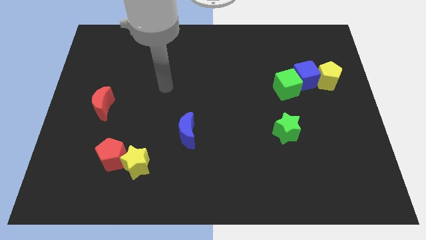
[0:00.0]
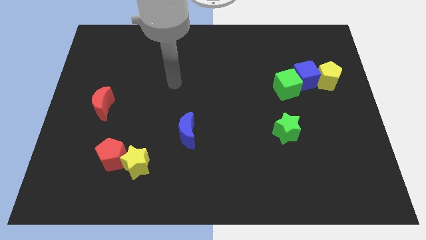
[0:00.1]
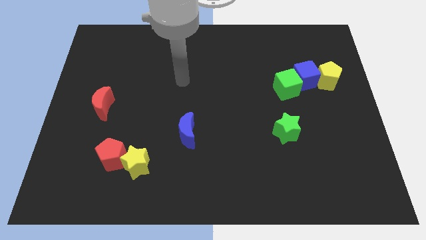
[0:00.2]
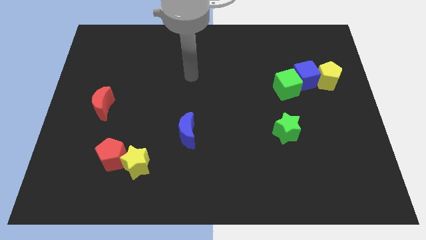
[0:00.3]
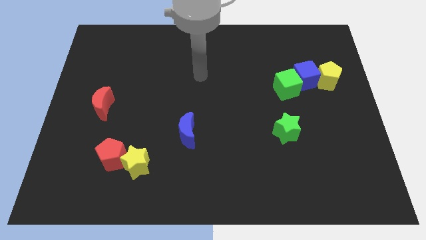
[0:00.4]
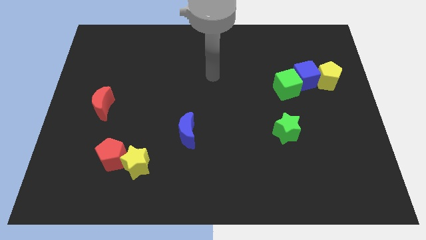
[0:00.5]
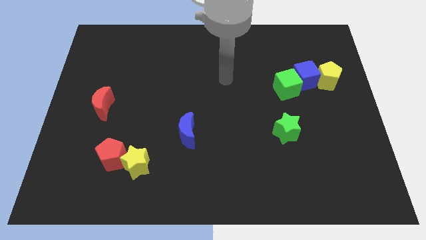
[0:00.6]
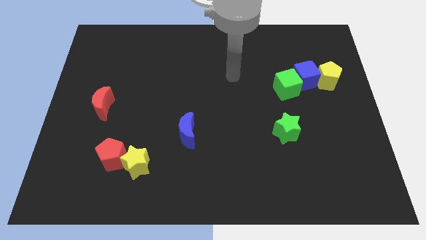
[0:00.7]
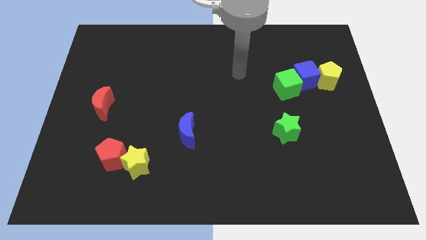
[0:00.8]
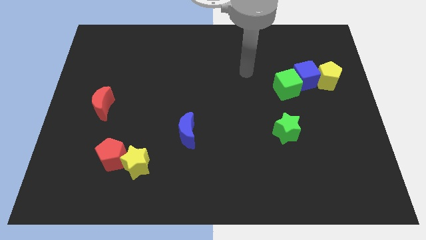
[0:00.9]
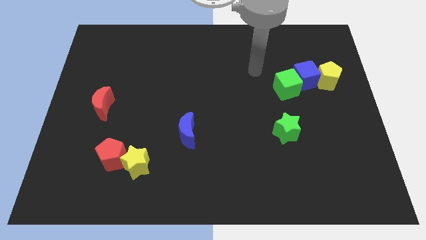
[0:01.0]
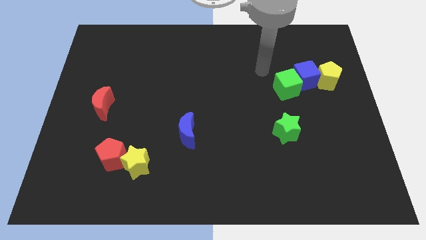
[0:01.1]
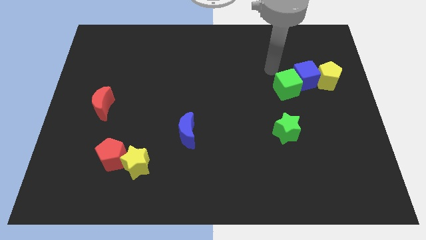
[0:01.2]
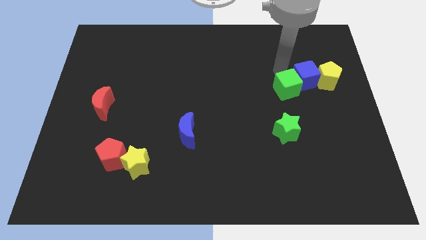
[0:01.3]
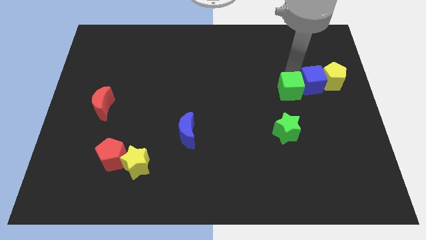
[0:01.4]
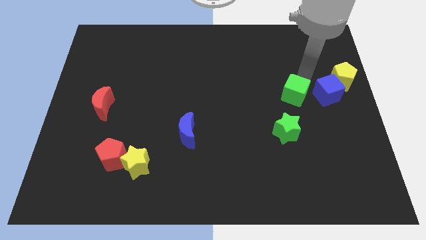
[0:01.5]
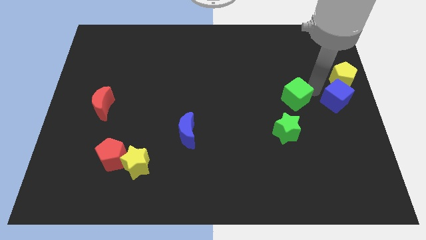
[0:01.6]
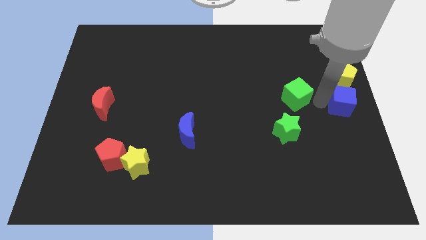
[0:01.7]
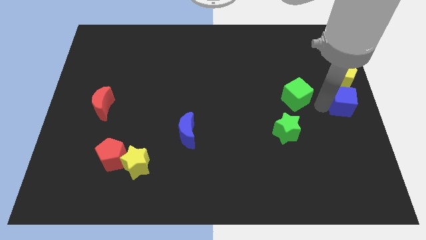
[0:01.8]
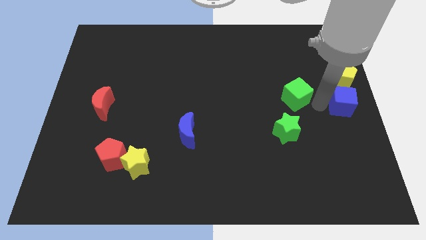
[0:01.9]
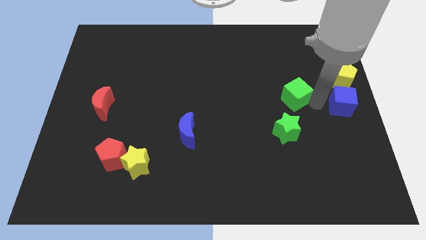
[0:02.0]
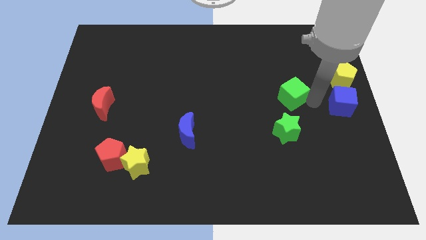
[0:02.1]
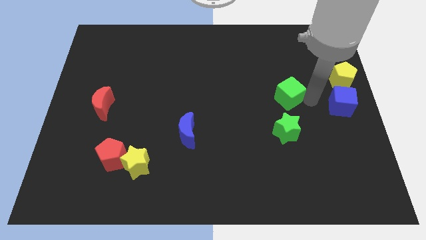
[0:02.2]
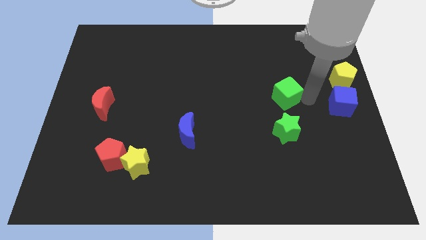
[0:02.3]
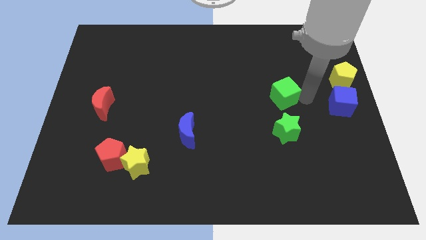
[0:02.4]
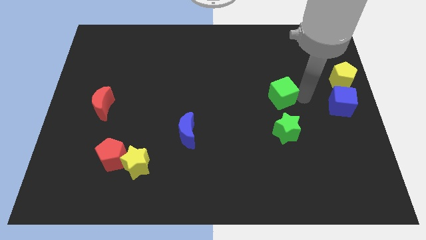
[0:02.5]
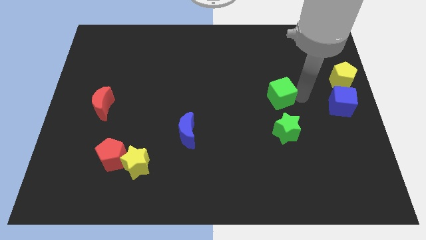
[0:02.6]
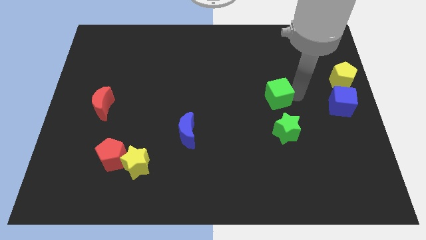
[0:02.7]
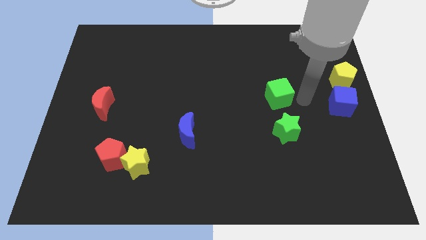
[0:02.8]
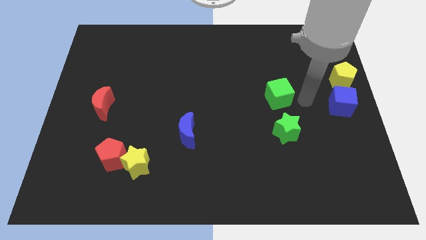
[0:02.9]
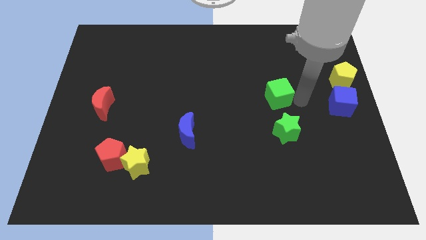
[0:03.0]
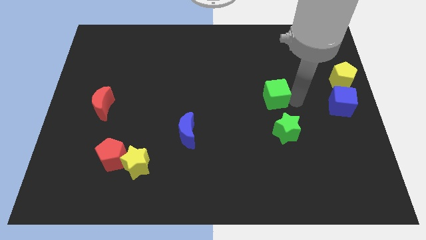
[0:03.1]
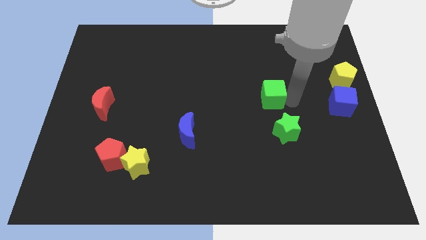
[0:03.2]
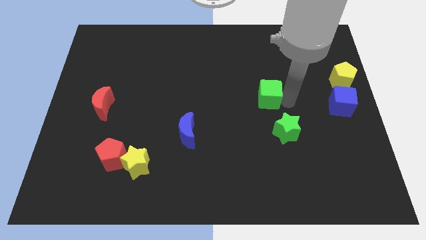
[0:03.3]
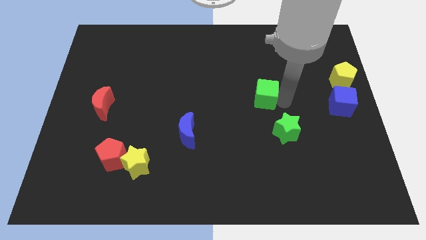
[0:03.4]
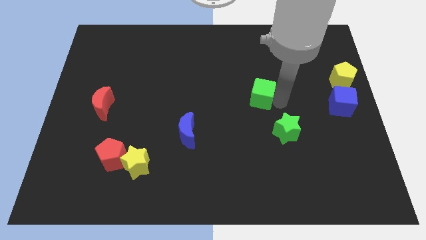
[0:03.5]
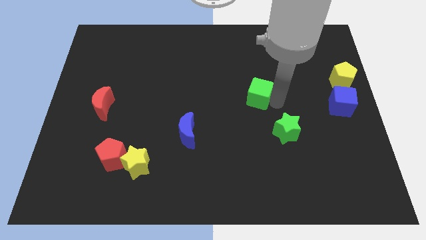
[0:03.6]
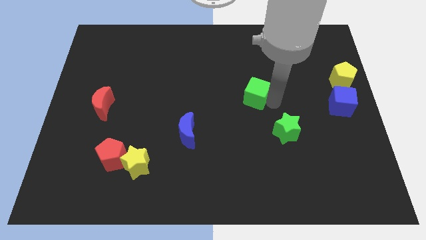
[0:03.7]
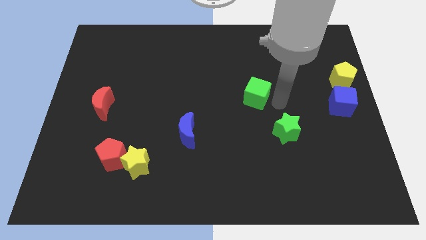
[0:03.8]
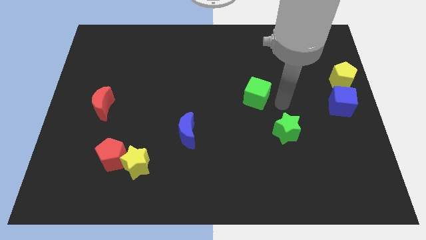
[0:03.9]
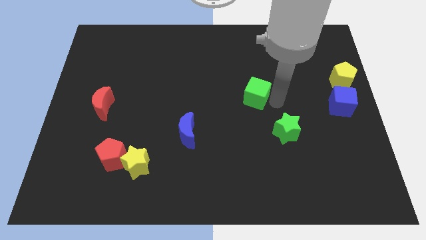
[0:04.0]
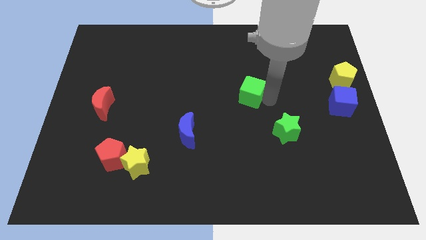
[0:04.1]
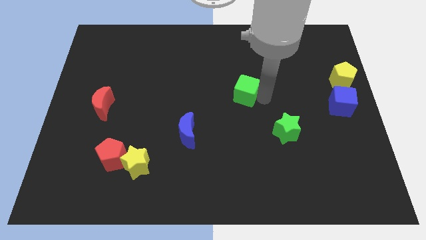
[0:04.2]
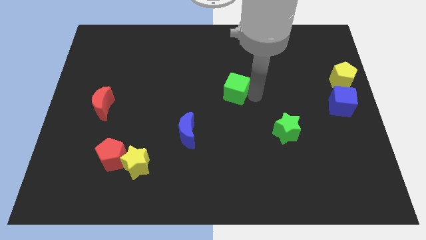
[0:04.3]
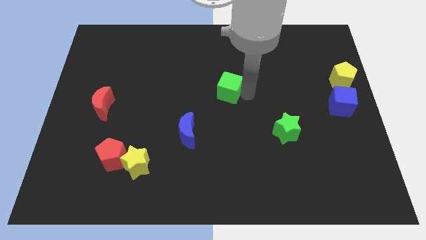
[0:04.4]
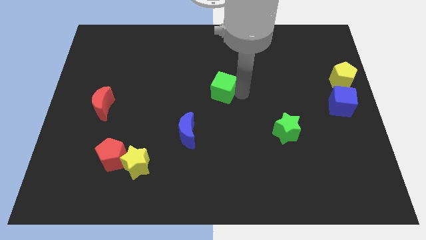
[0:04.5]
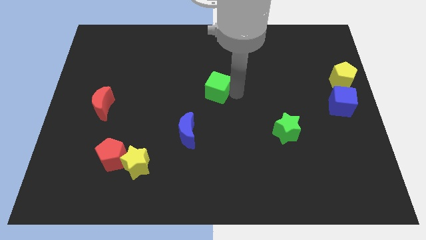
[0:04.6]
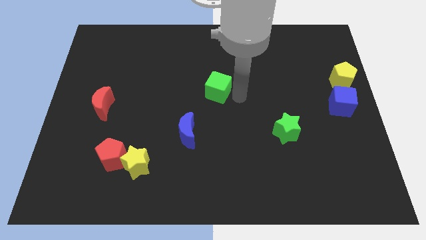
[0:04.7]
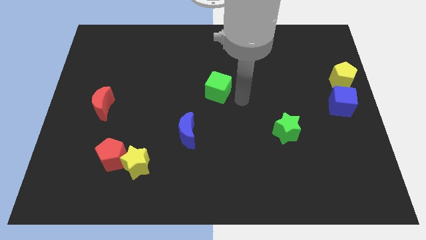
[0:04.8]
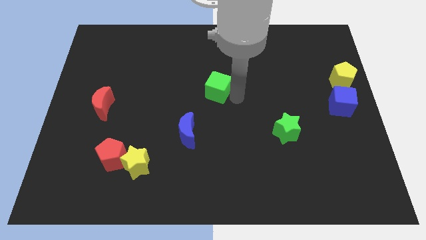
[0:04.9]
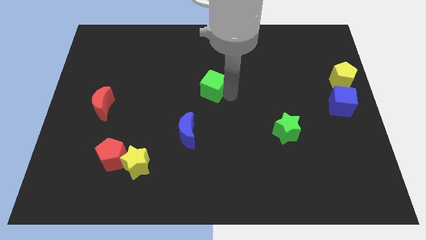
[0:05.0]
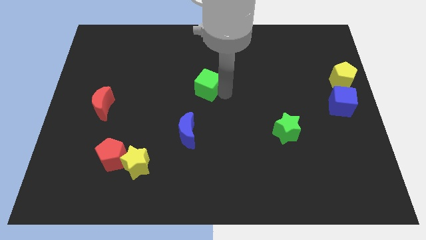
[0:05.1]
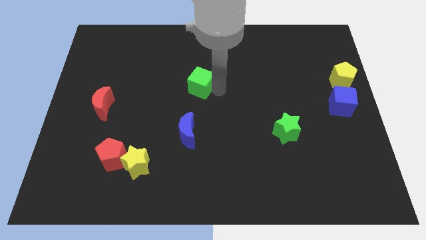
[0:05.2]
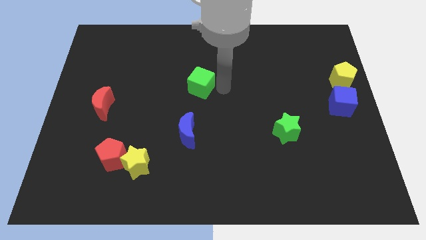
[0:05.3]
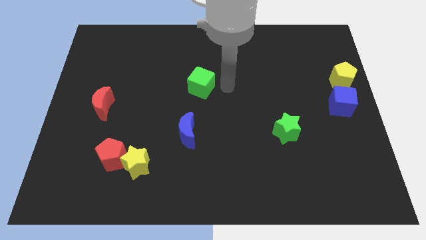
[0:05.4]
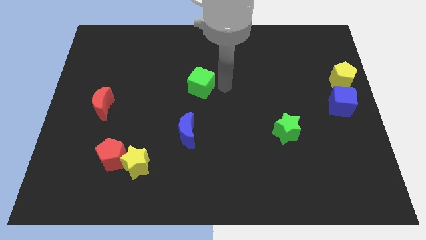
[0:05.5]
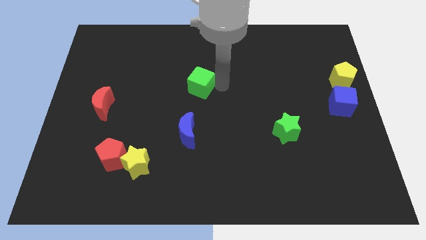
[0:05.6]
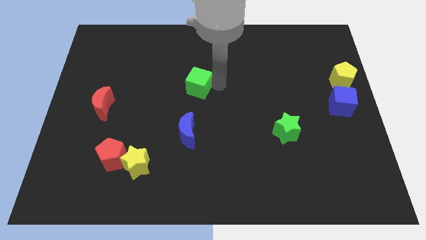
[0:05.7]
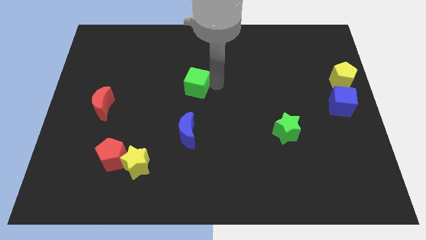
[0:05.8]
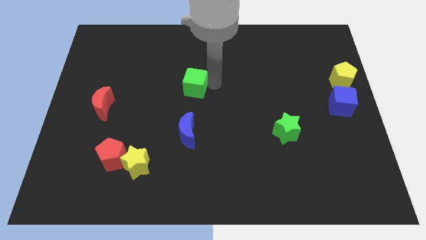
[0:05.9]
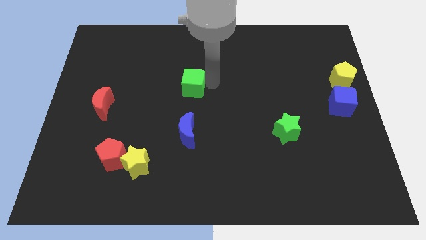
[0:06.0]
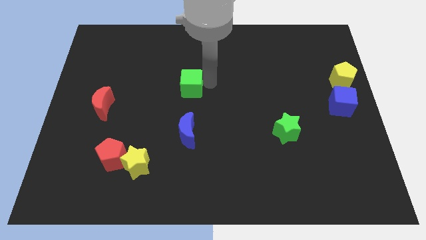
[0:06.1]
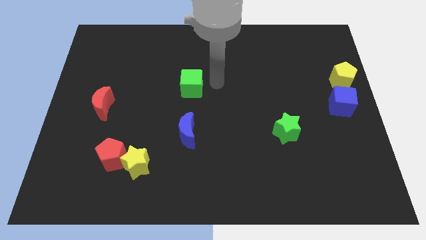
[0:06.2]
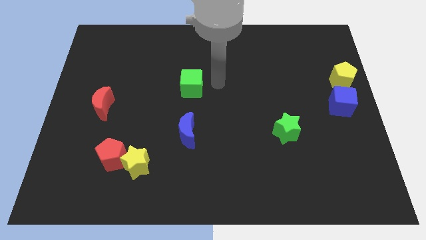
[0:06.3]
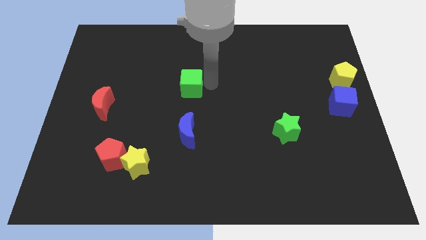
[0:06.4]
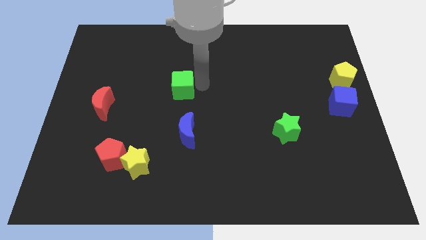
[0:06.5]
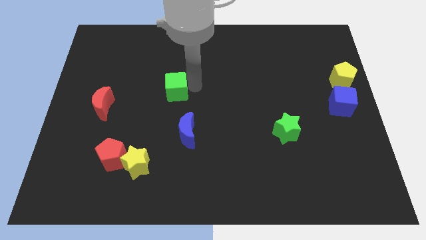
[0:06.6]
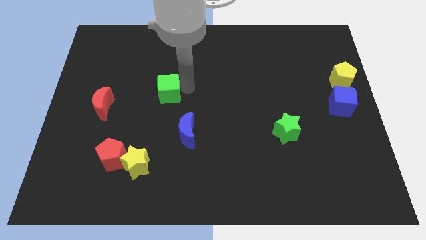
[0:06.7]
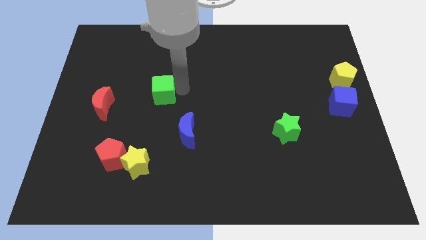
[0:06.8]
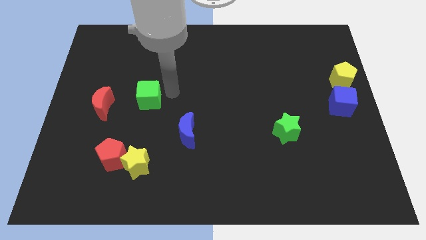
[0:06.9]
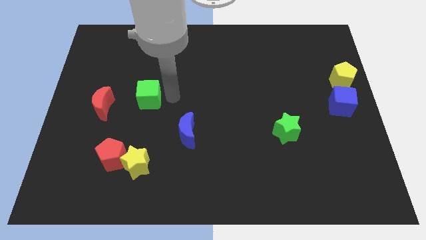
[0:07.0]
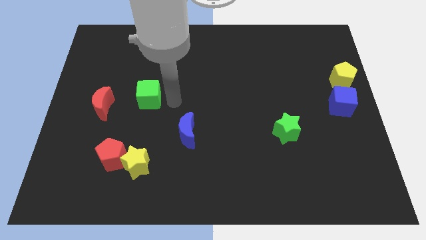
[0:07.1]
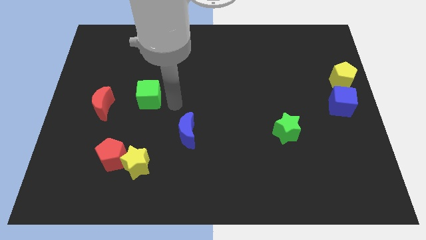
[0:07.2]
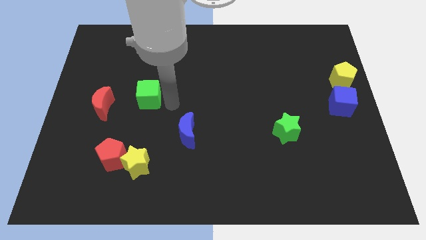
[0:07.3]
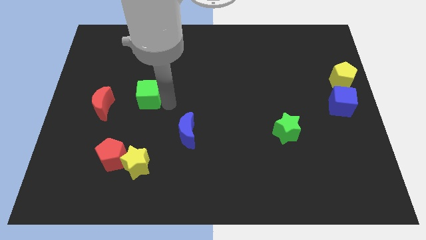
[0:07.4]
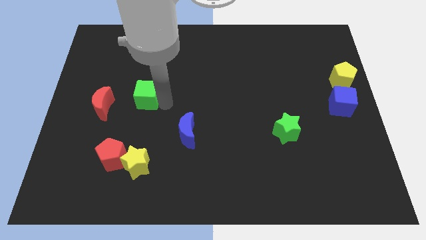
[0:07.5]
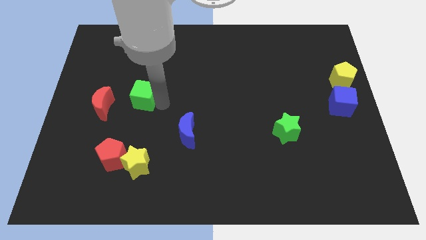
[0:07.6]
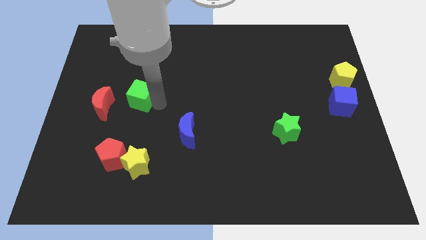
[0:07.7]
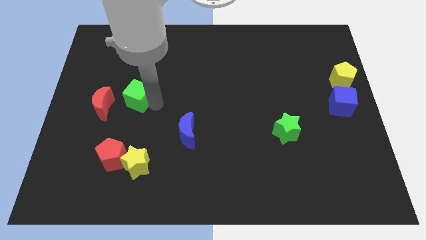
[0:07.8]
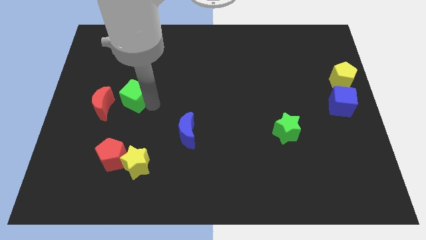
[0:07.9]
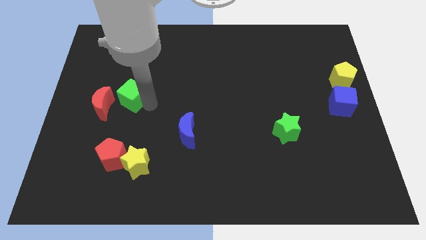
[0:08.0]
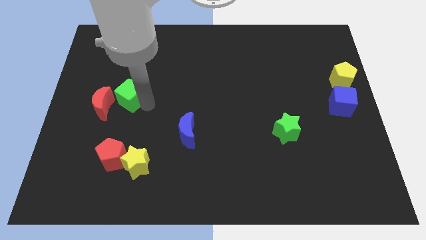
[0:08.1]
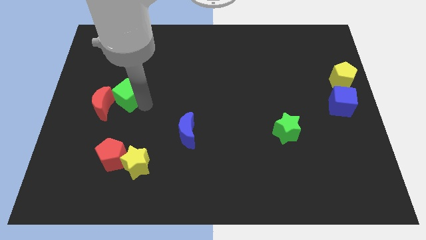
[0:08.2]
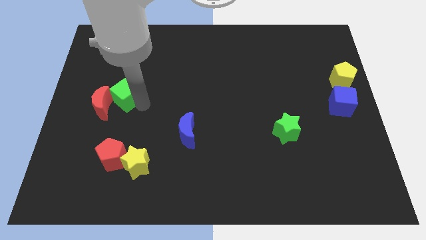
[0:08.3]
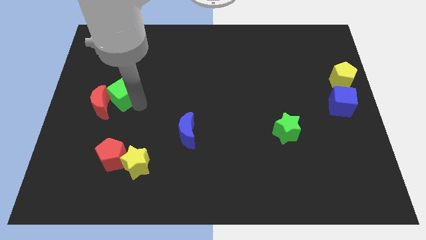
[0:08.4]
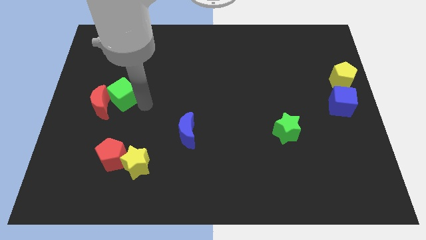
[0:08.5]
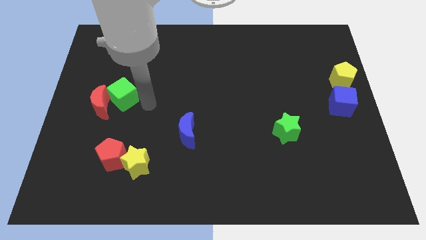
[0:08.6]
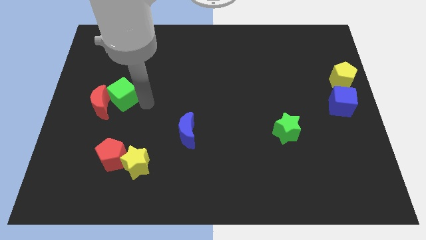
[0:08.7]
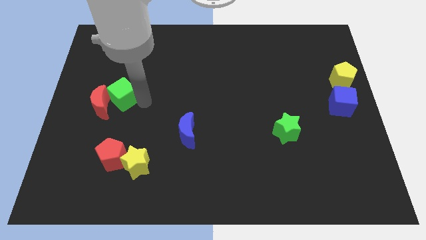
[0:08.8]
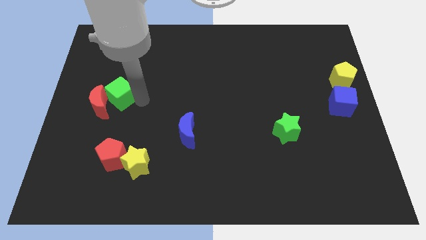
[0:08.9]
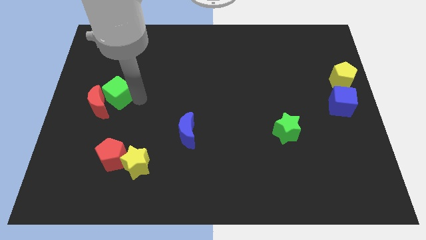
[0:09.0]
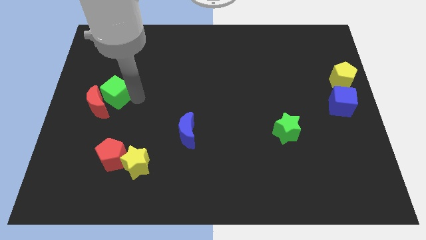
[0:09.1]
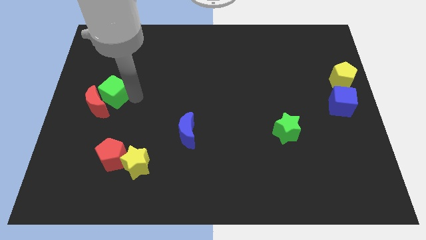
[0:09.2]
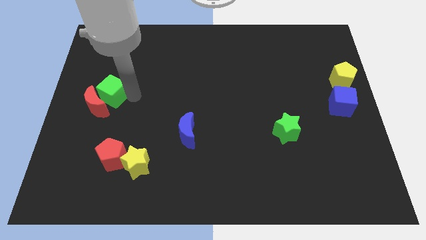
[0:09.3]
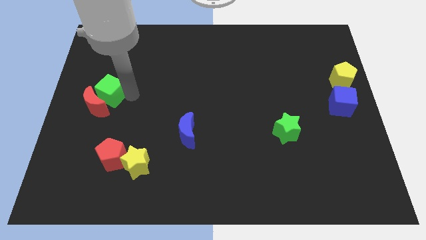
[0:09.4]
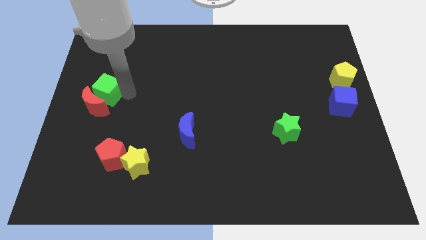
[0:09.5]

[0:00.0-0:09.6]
slide the green cube to the center left
